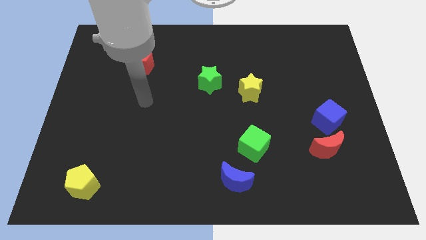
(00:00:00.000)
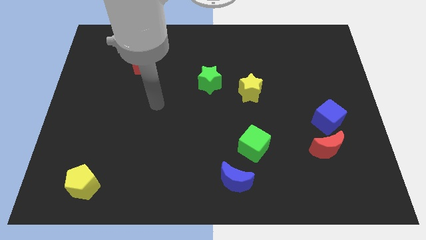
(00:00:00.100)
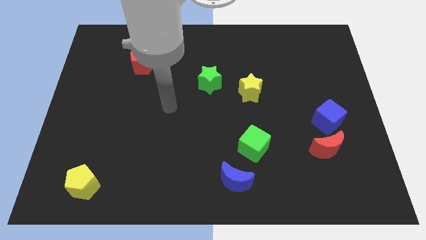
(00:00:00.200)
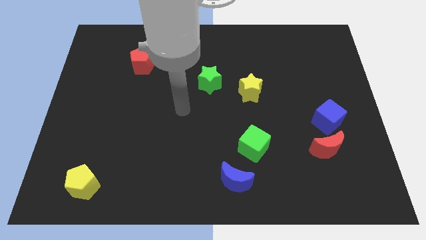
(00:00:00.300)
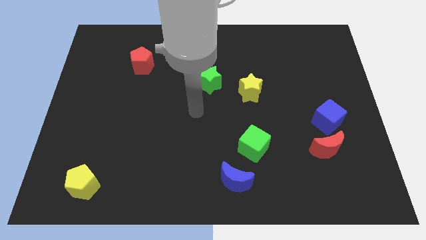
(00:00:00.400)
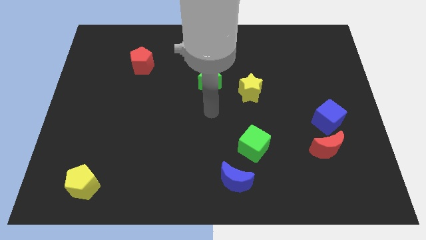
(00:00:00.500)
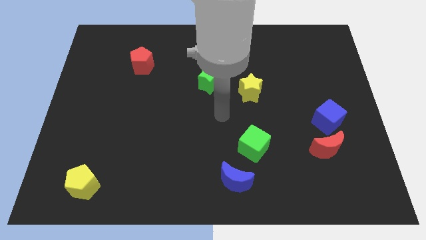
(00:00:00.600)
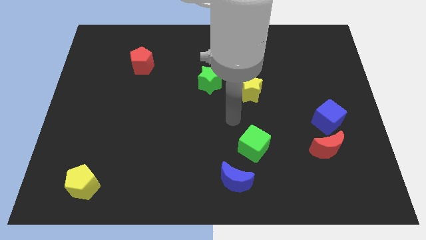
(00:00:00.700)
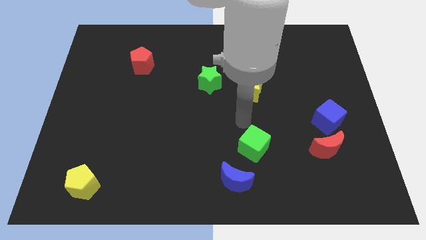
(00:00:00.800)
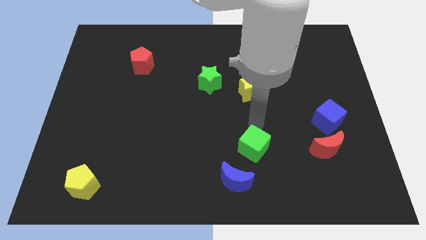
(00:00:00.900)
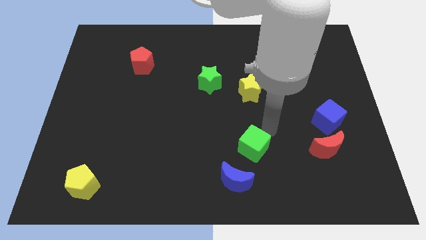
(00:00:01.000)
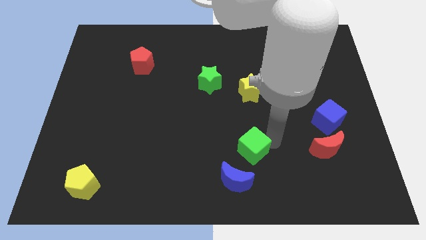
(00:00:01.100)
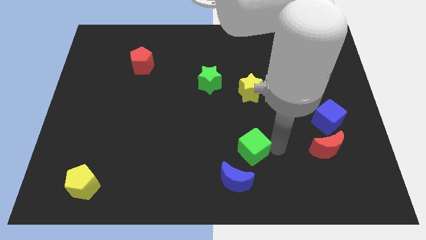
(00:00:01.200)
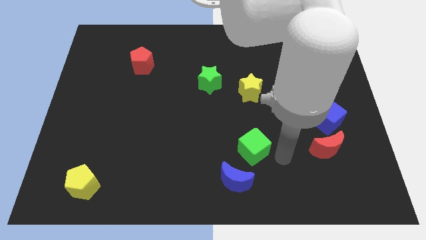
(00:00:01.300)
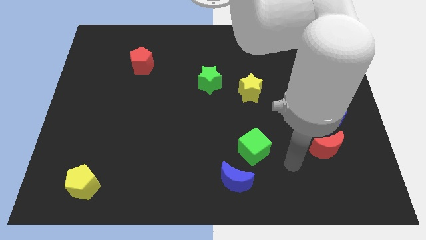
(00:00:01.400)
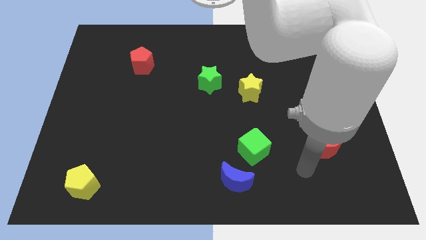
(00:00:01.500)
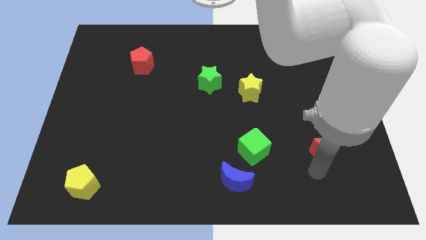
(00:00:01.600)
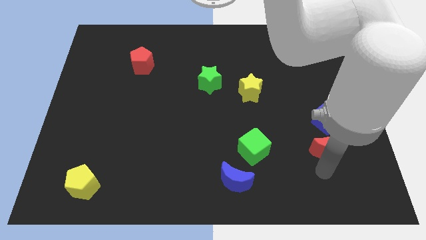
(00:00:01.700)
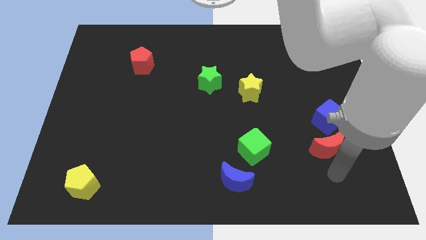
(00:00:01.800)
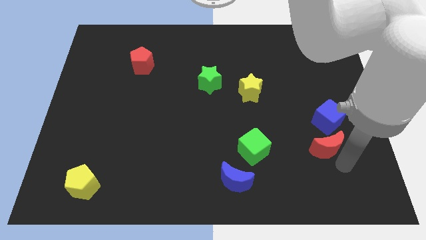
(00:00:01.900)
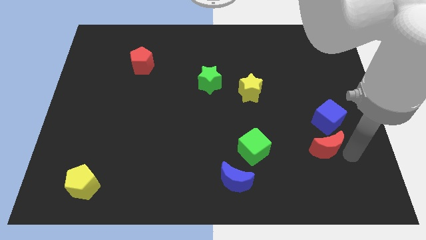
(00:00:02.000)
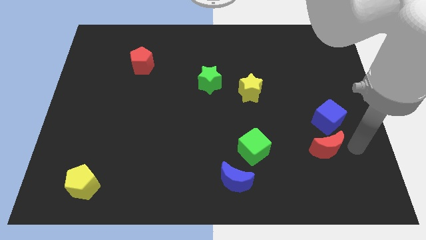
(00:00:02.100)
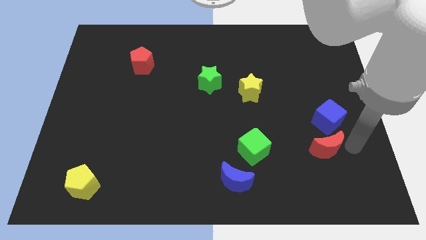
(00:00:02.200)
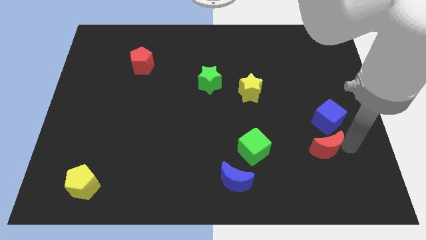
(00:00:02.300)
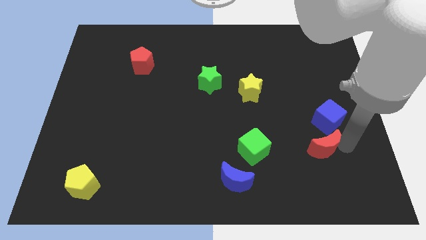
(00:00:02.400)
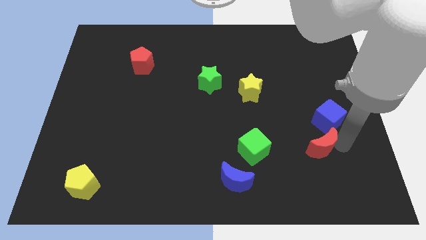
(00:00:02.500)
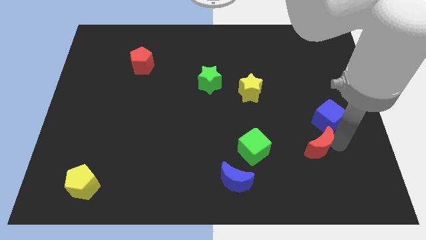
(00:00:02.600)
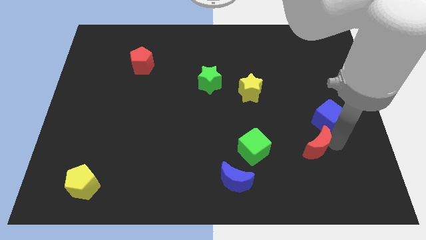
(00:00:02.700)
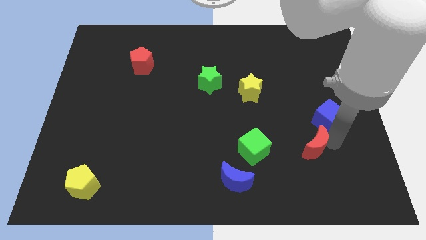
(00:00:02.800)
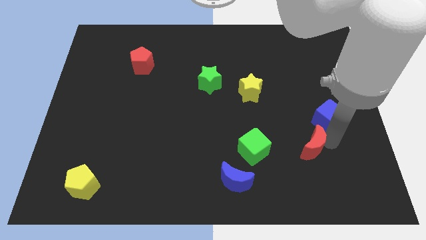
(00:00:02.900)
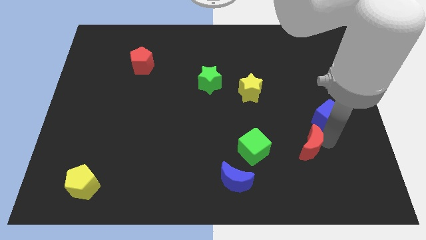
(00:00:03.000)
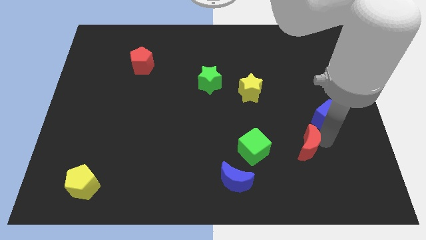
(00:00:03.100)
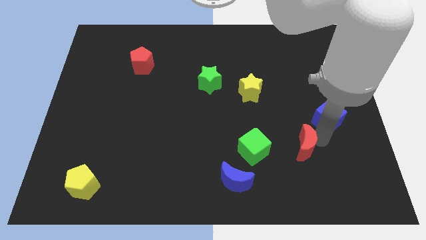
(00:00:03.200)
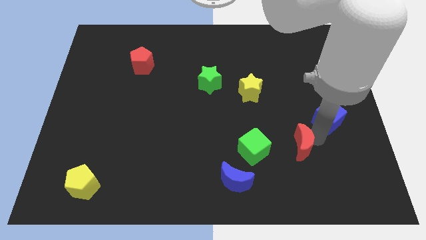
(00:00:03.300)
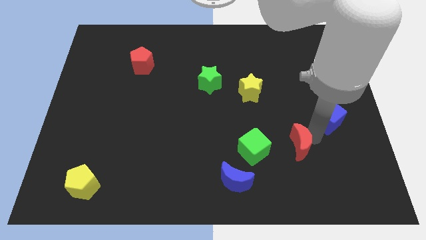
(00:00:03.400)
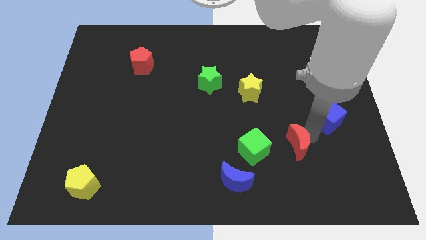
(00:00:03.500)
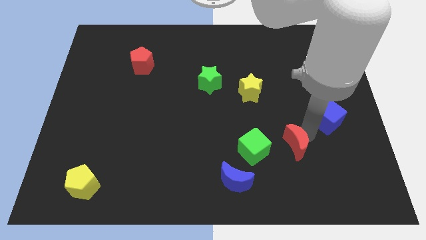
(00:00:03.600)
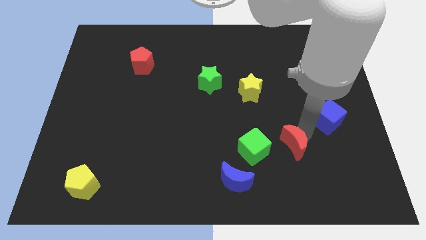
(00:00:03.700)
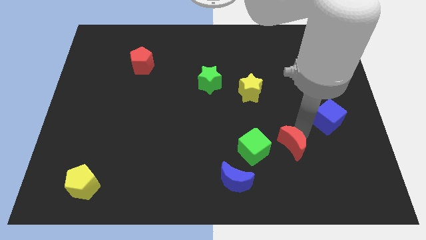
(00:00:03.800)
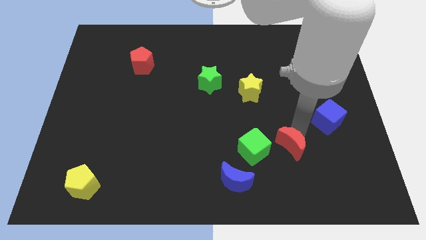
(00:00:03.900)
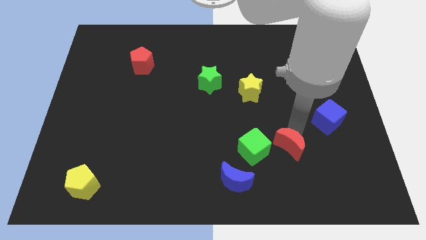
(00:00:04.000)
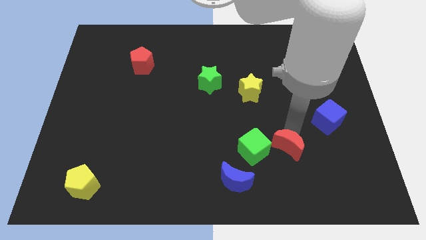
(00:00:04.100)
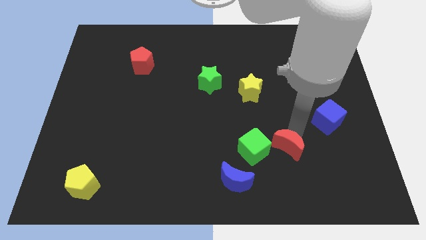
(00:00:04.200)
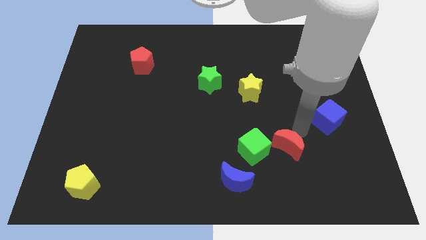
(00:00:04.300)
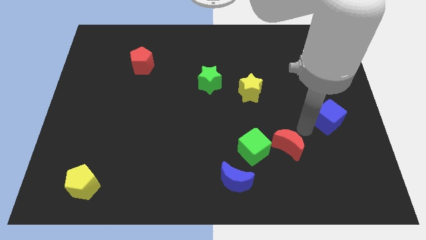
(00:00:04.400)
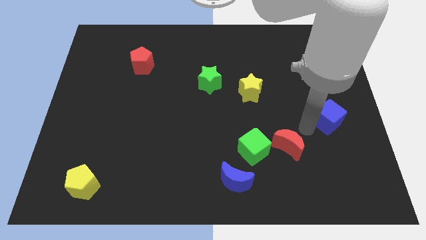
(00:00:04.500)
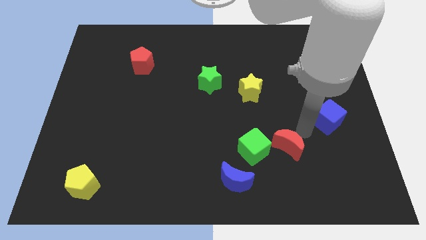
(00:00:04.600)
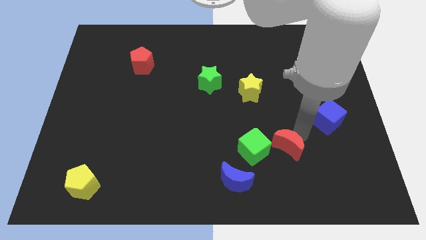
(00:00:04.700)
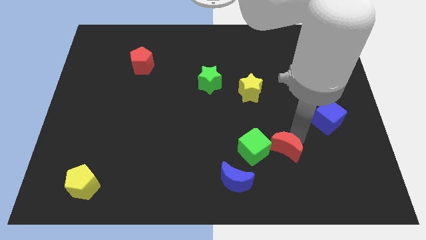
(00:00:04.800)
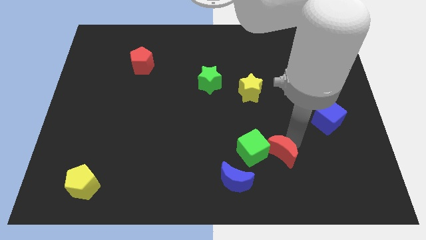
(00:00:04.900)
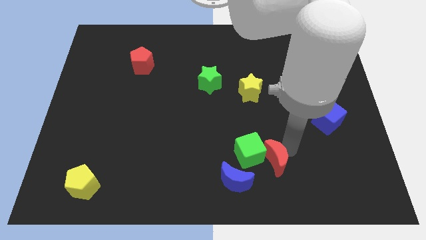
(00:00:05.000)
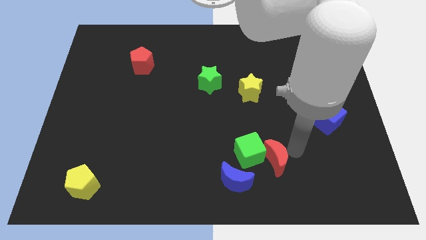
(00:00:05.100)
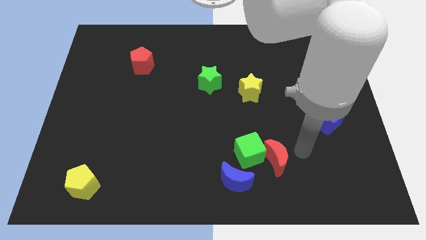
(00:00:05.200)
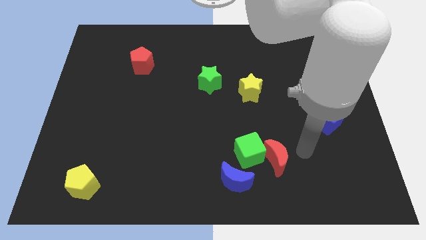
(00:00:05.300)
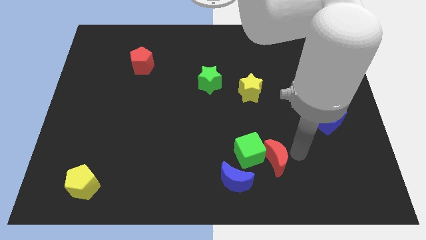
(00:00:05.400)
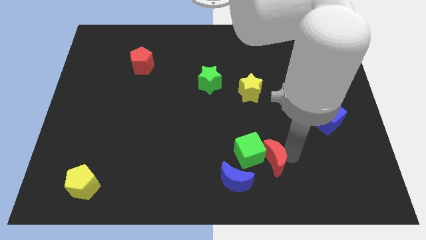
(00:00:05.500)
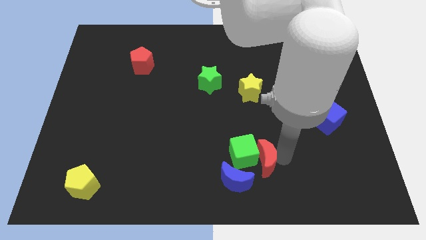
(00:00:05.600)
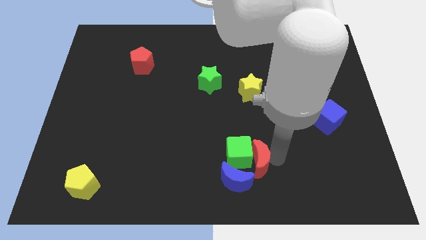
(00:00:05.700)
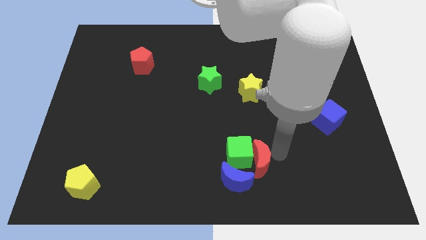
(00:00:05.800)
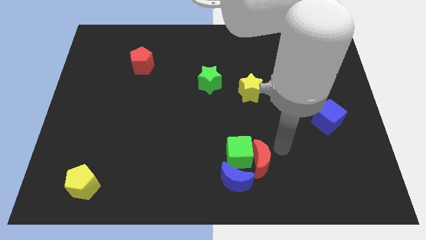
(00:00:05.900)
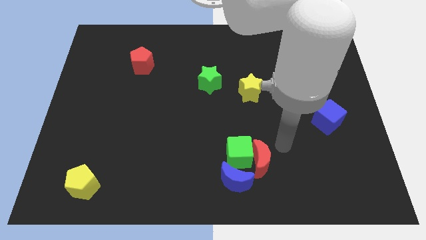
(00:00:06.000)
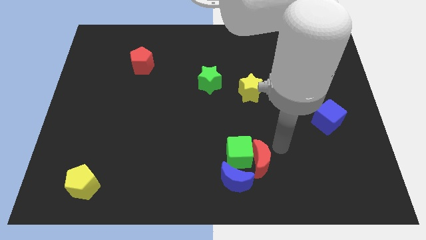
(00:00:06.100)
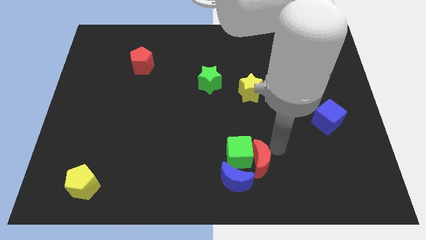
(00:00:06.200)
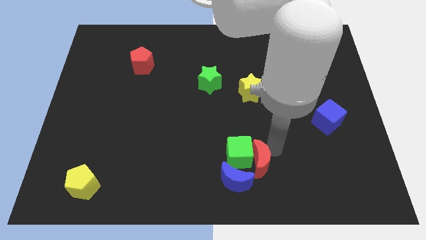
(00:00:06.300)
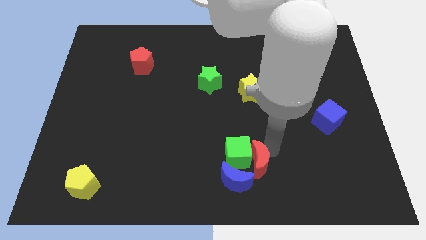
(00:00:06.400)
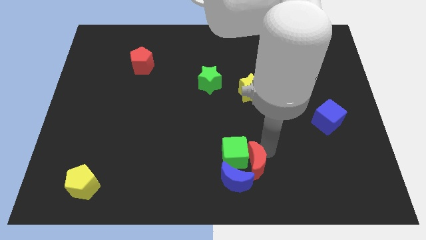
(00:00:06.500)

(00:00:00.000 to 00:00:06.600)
put the red moon close to the blue moon
